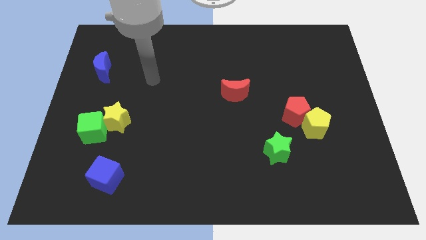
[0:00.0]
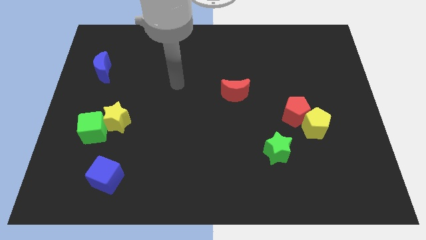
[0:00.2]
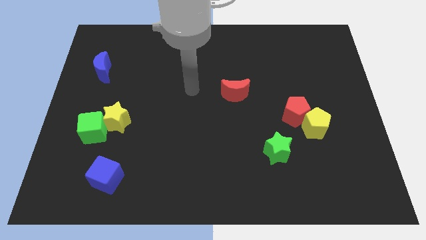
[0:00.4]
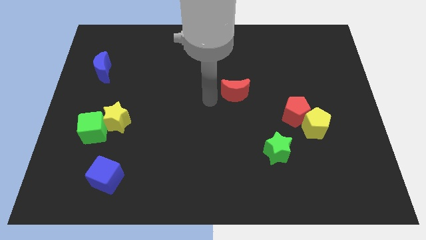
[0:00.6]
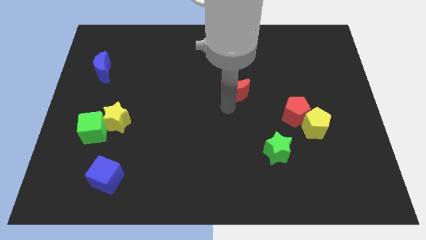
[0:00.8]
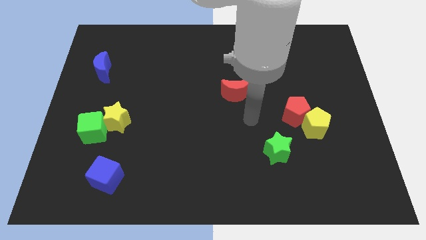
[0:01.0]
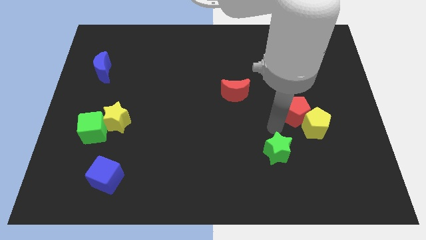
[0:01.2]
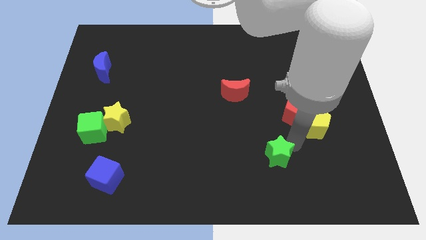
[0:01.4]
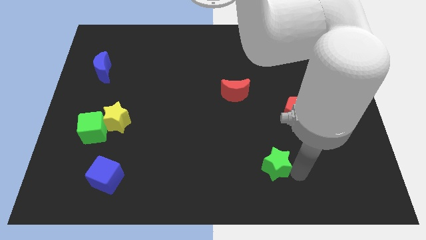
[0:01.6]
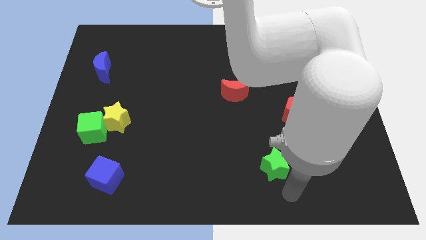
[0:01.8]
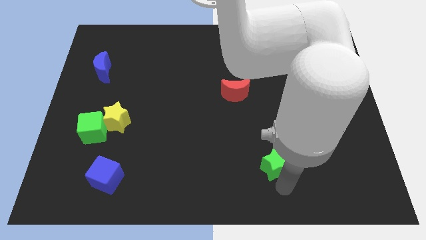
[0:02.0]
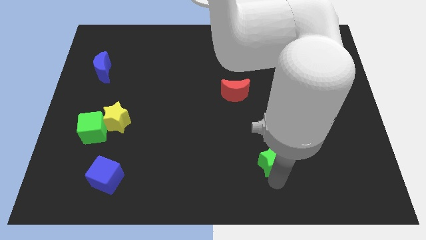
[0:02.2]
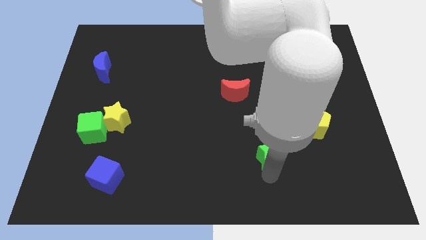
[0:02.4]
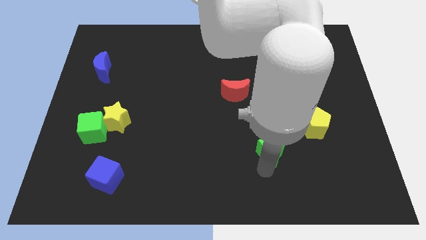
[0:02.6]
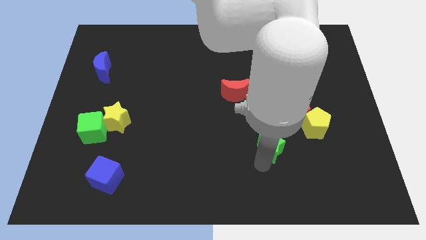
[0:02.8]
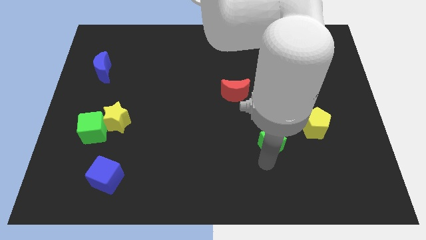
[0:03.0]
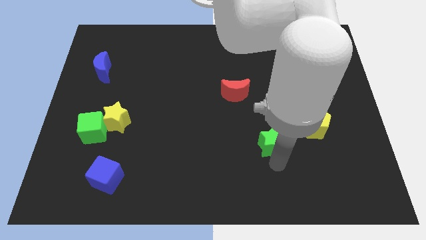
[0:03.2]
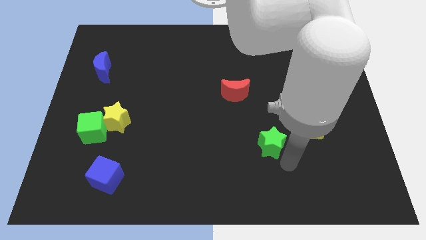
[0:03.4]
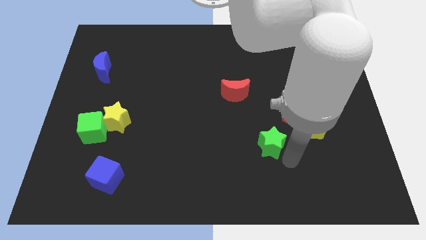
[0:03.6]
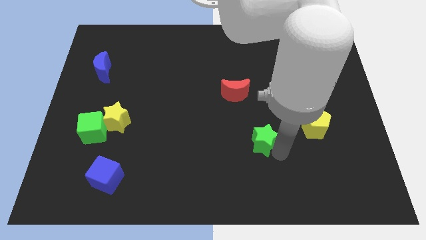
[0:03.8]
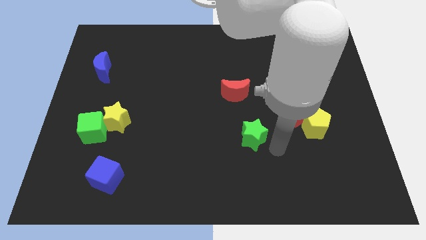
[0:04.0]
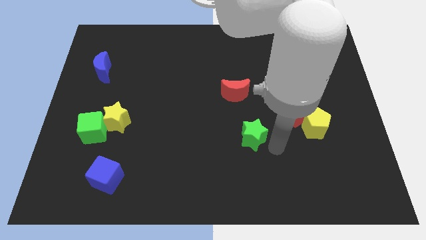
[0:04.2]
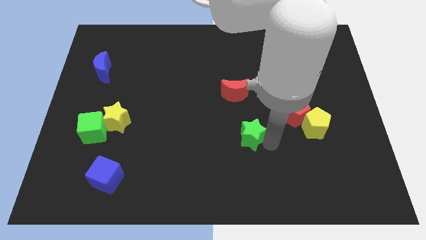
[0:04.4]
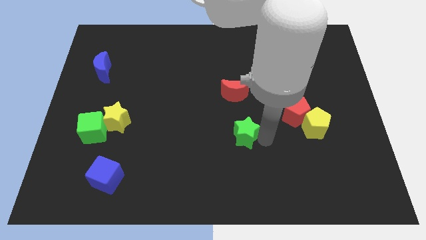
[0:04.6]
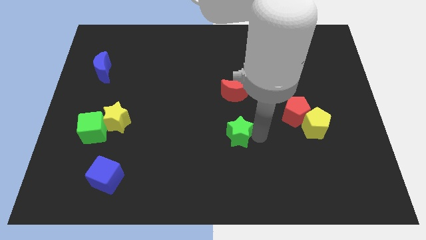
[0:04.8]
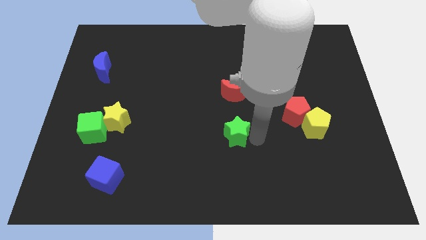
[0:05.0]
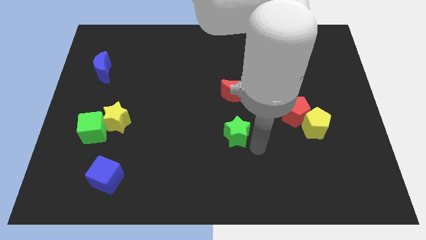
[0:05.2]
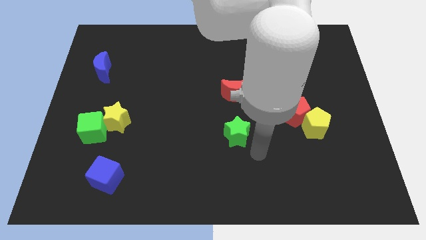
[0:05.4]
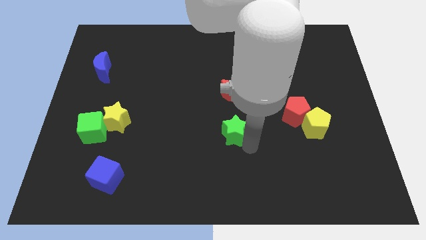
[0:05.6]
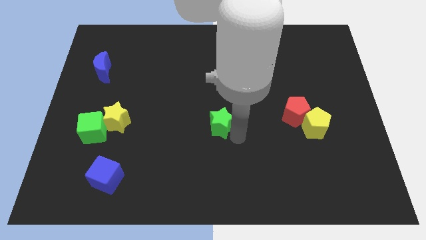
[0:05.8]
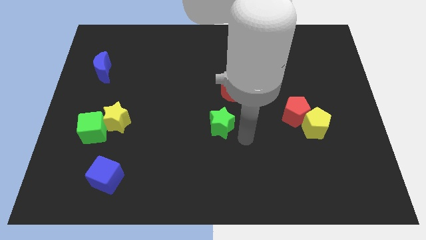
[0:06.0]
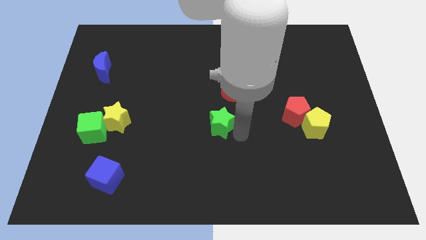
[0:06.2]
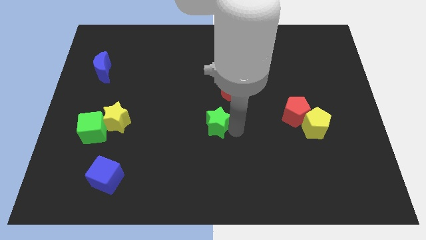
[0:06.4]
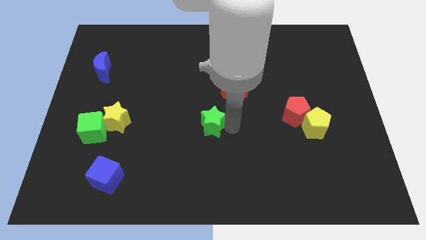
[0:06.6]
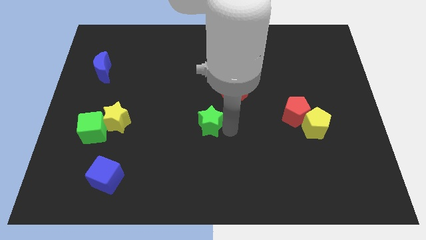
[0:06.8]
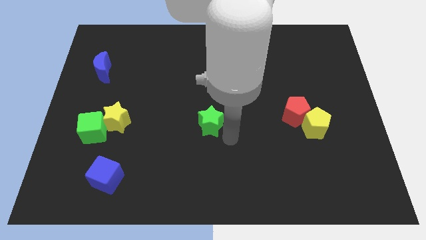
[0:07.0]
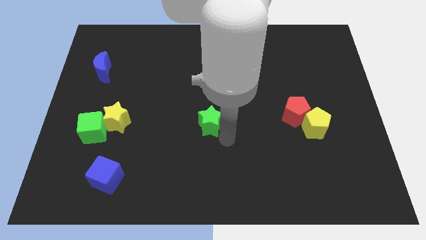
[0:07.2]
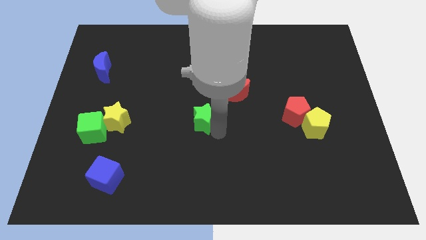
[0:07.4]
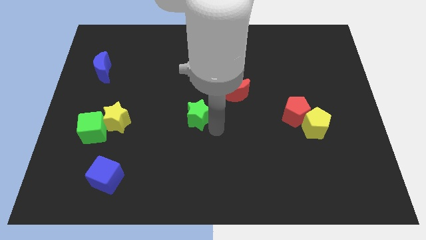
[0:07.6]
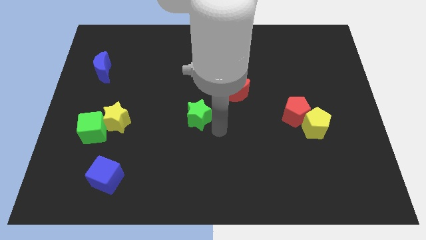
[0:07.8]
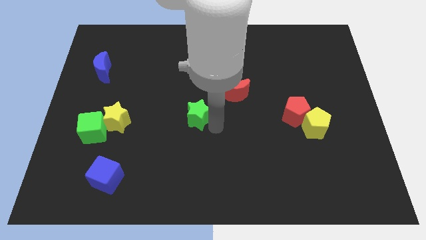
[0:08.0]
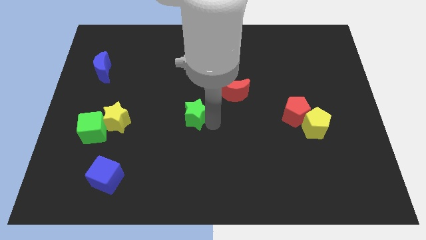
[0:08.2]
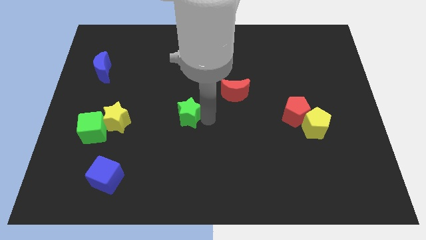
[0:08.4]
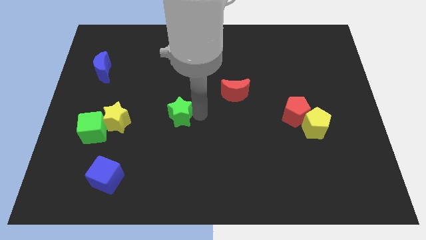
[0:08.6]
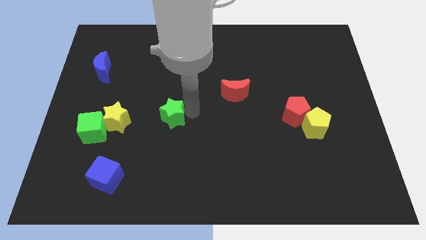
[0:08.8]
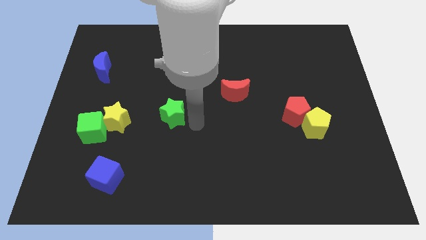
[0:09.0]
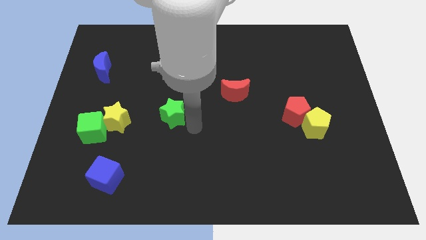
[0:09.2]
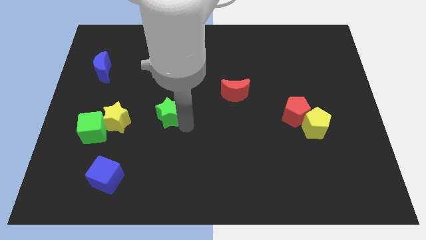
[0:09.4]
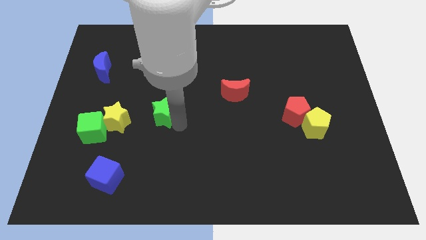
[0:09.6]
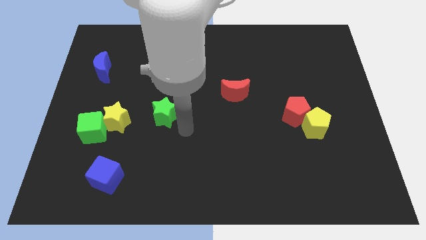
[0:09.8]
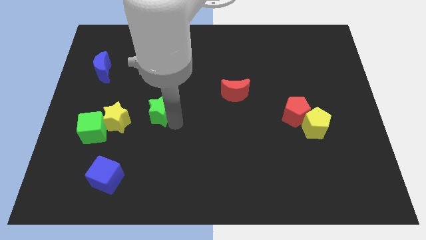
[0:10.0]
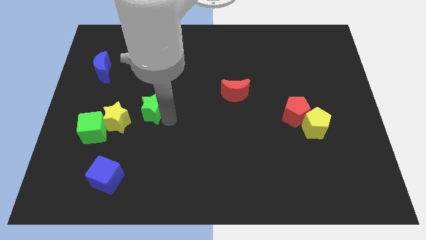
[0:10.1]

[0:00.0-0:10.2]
push the green star diagonally up and to the right of the yellow star

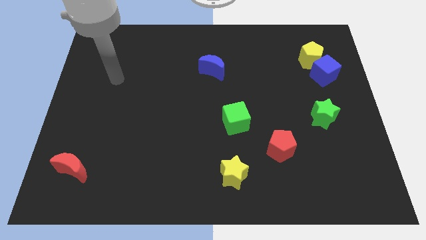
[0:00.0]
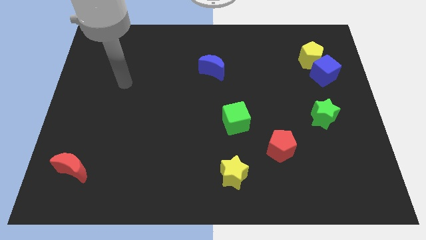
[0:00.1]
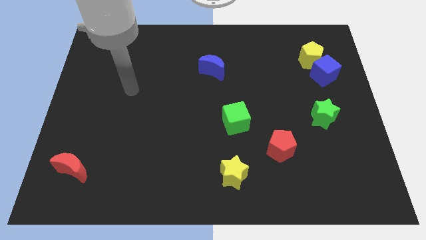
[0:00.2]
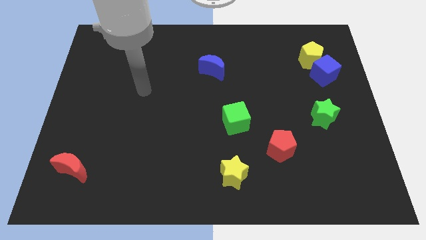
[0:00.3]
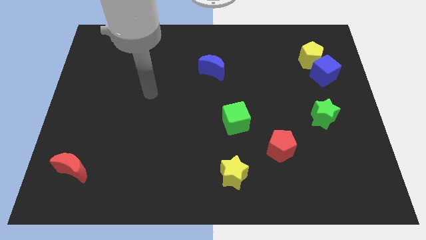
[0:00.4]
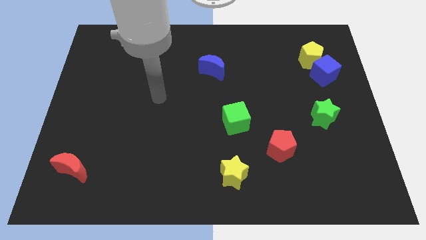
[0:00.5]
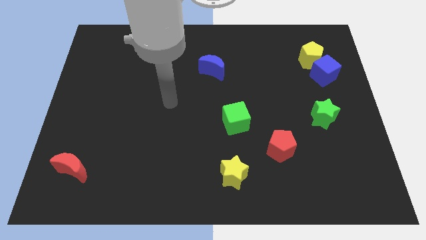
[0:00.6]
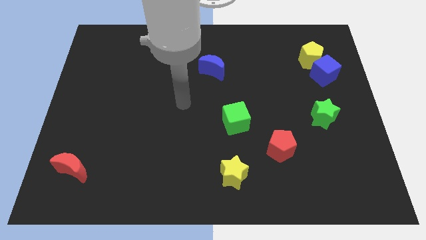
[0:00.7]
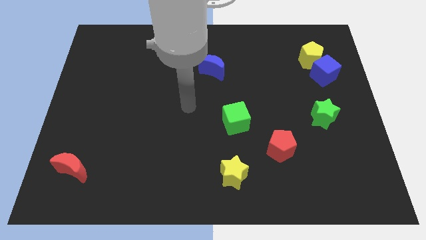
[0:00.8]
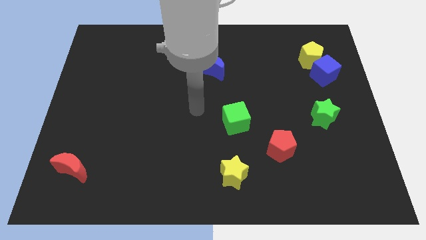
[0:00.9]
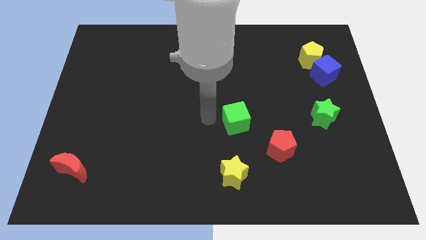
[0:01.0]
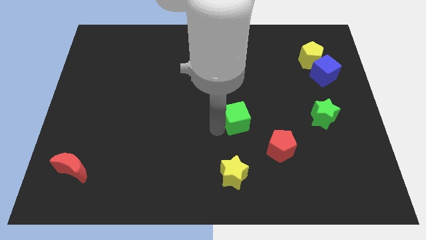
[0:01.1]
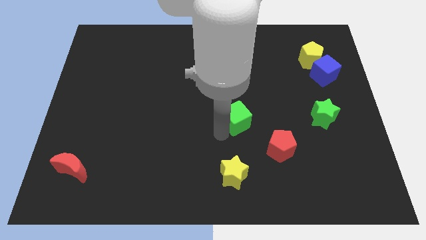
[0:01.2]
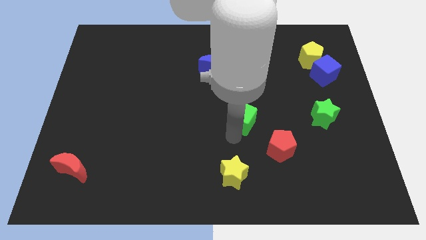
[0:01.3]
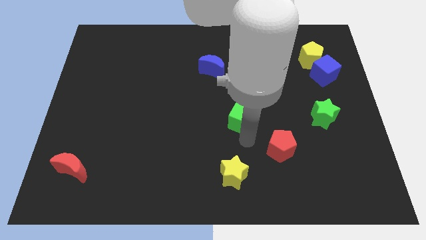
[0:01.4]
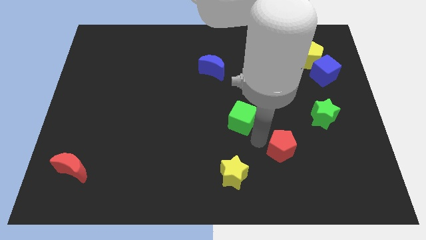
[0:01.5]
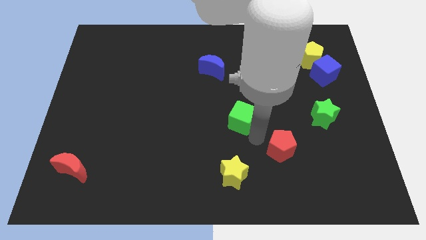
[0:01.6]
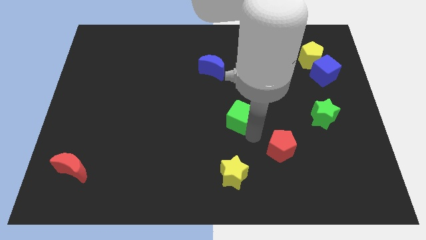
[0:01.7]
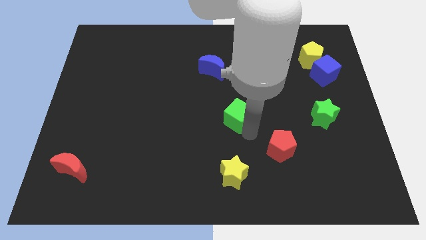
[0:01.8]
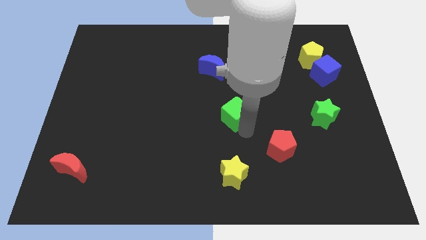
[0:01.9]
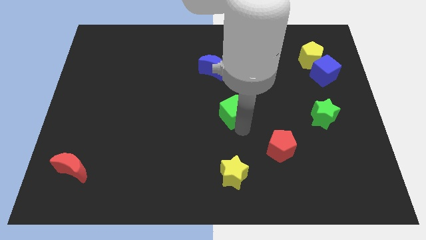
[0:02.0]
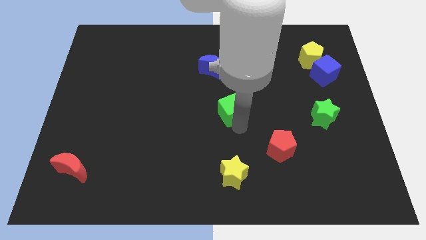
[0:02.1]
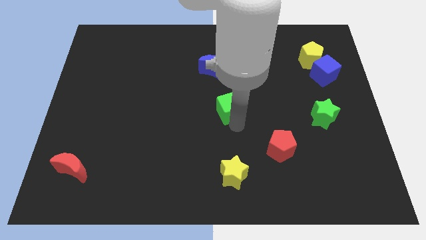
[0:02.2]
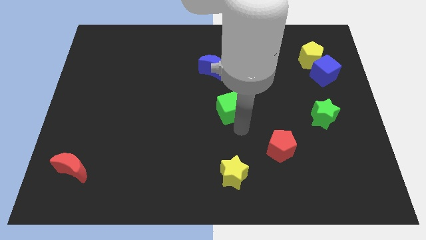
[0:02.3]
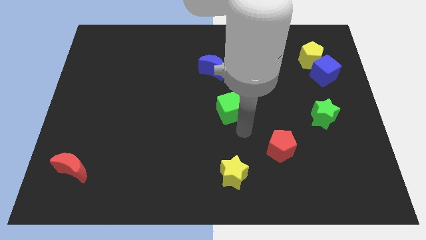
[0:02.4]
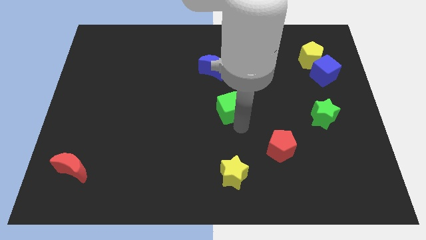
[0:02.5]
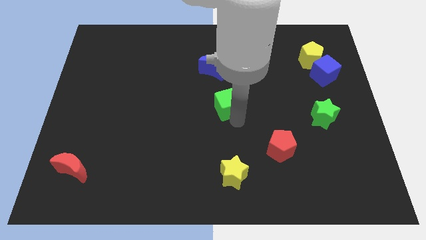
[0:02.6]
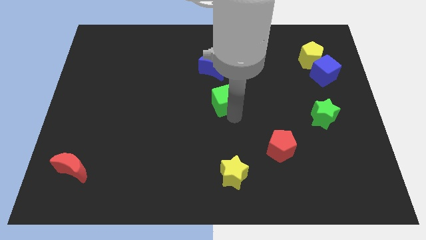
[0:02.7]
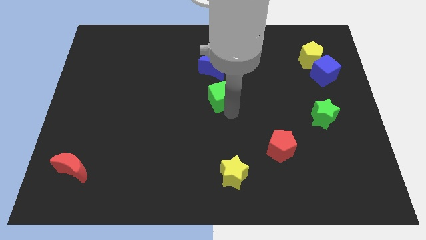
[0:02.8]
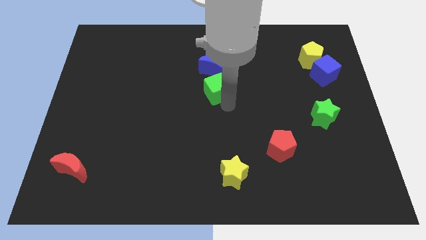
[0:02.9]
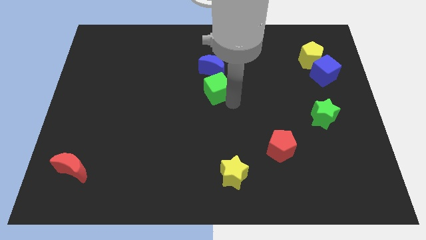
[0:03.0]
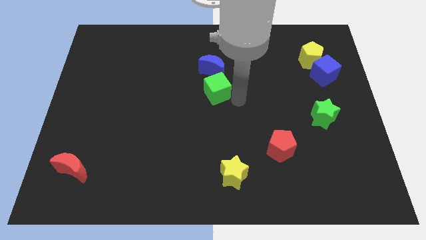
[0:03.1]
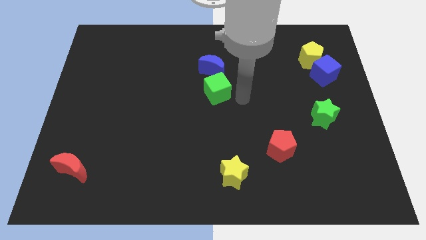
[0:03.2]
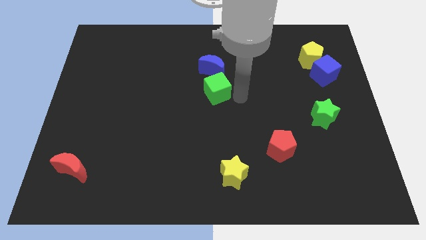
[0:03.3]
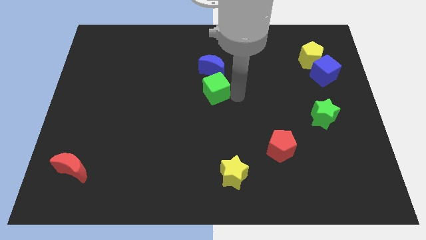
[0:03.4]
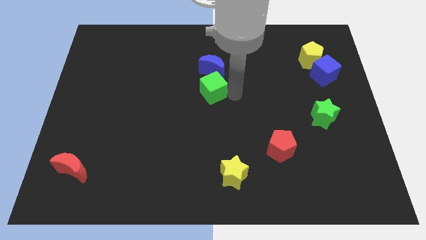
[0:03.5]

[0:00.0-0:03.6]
push the green cube to the bottom left side of the blue moon
